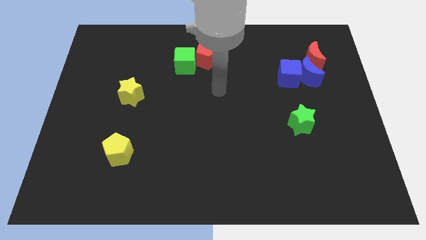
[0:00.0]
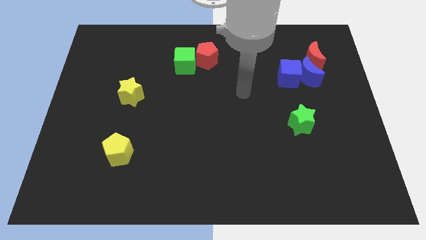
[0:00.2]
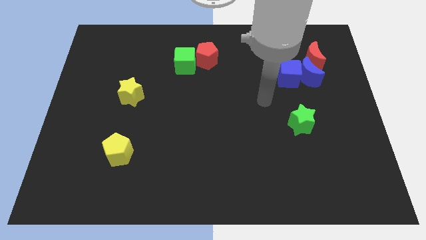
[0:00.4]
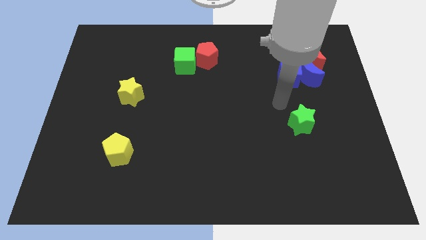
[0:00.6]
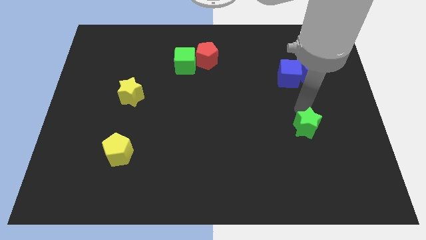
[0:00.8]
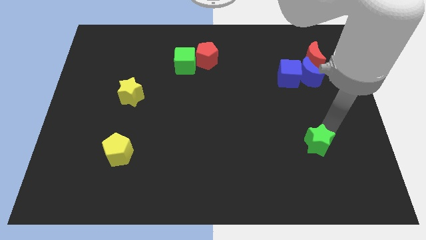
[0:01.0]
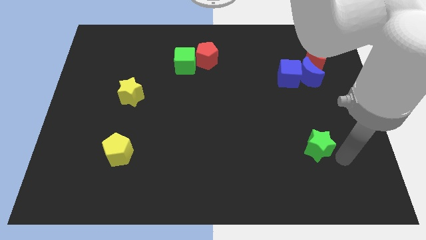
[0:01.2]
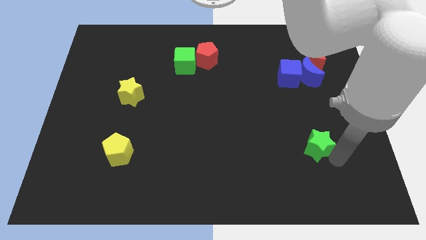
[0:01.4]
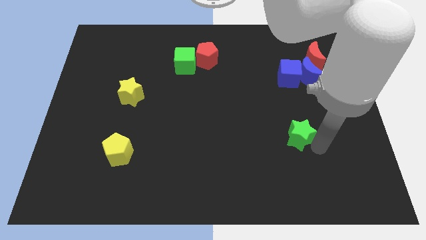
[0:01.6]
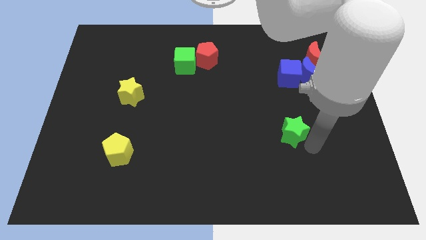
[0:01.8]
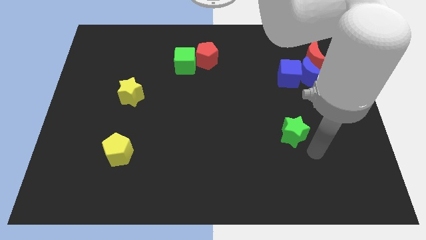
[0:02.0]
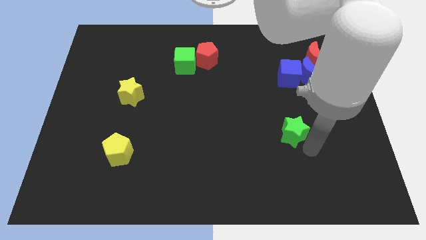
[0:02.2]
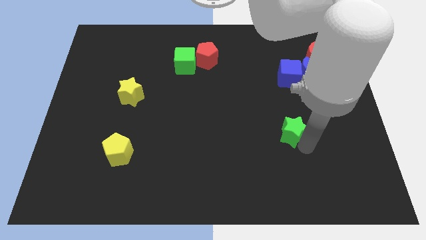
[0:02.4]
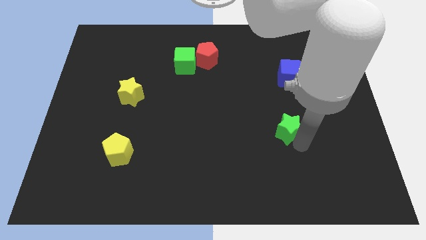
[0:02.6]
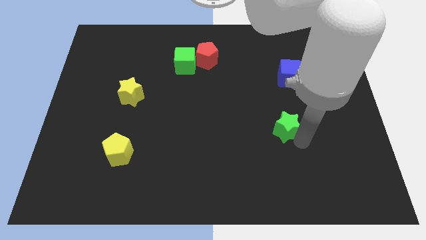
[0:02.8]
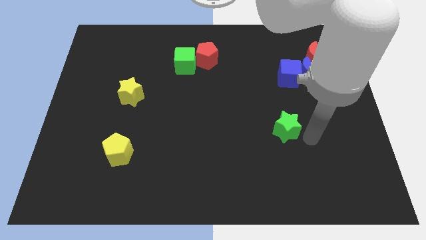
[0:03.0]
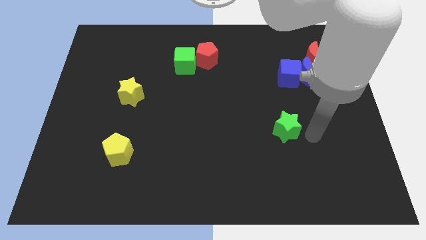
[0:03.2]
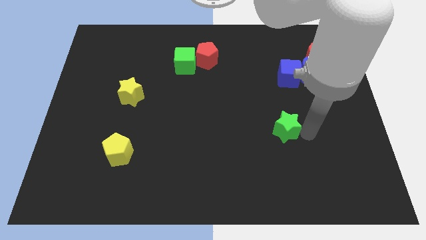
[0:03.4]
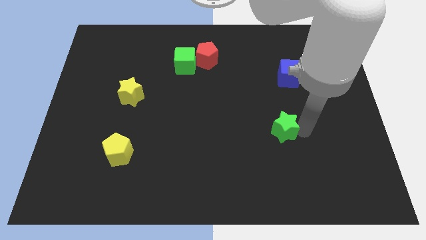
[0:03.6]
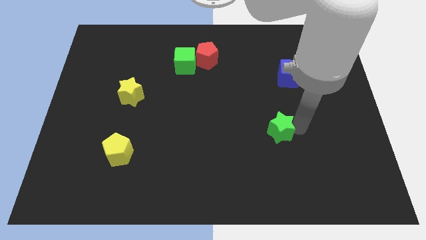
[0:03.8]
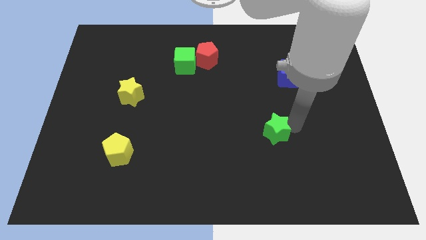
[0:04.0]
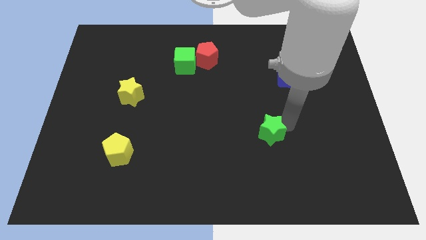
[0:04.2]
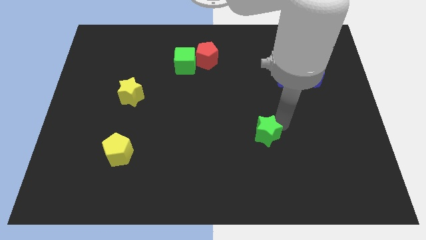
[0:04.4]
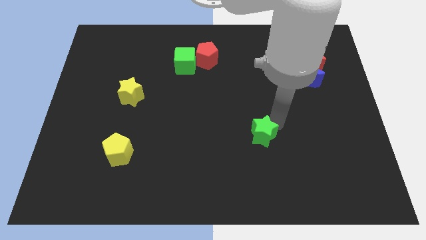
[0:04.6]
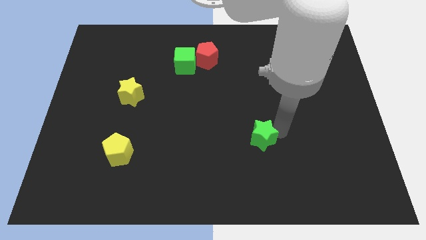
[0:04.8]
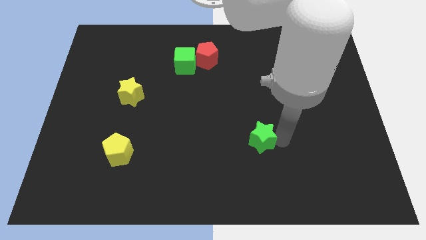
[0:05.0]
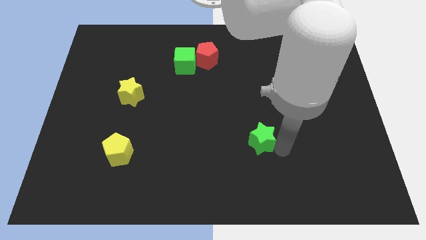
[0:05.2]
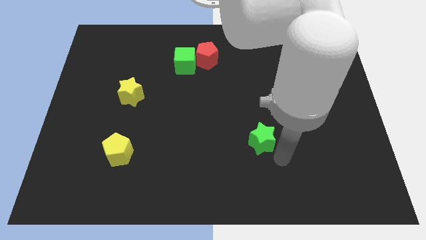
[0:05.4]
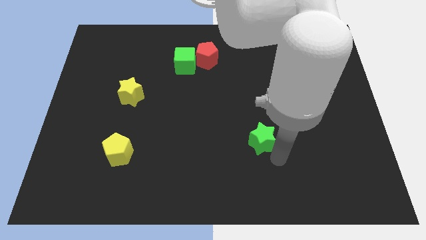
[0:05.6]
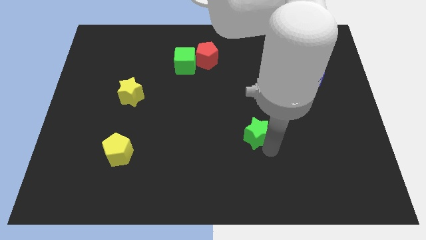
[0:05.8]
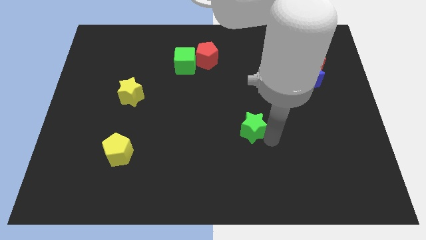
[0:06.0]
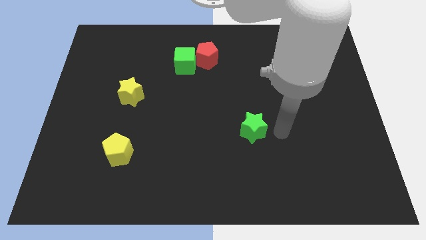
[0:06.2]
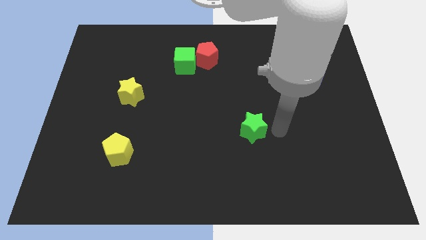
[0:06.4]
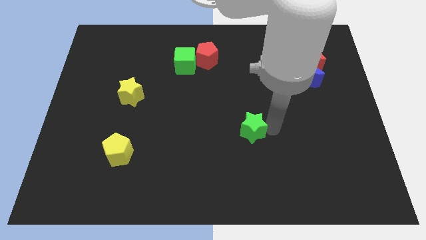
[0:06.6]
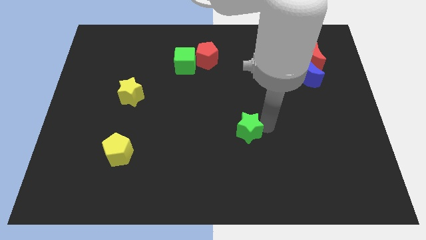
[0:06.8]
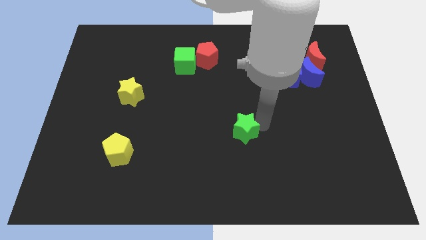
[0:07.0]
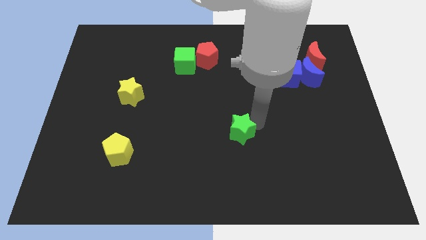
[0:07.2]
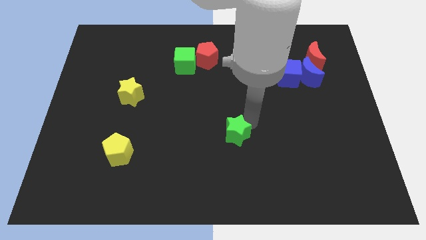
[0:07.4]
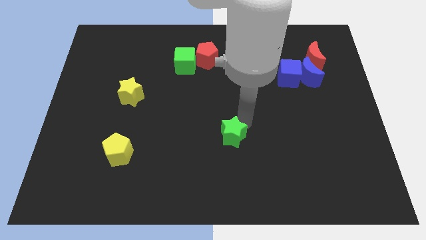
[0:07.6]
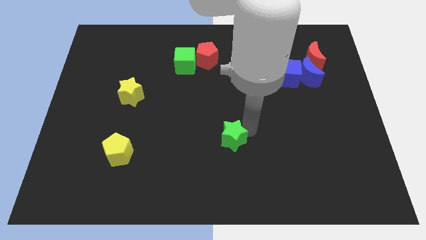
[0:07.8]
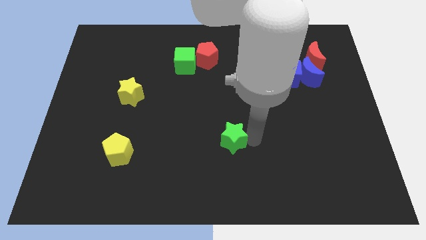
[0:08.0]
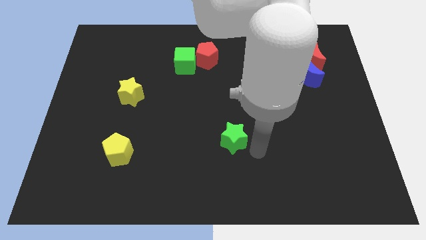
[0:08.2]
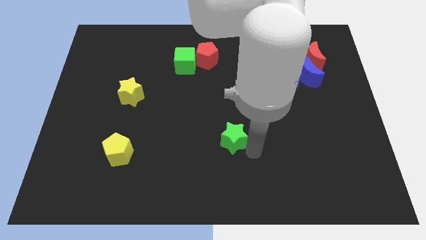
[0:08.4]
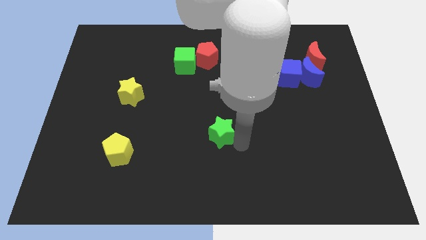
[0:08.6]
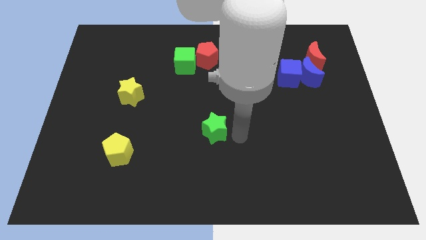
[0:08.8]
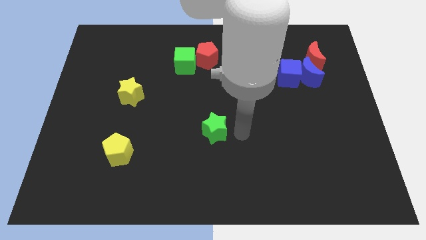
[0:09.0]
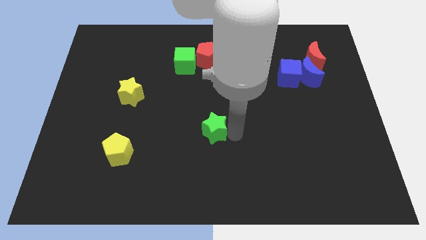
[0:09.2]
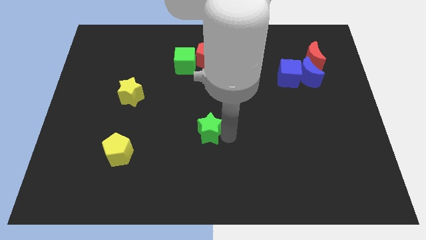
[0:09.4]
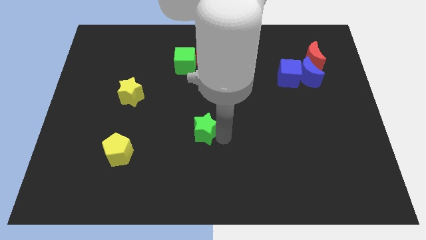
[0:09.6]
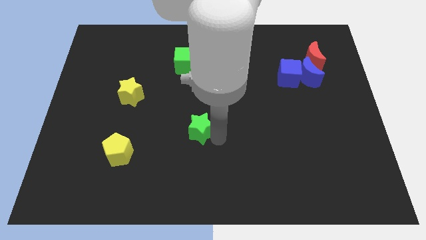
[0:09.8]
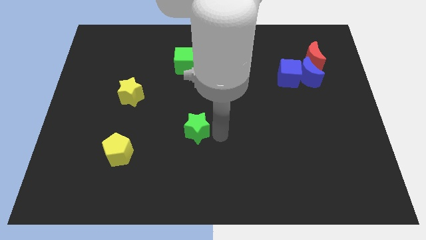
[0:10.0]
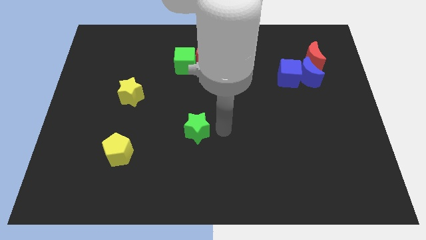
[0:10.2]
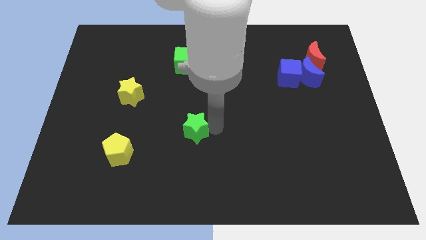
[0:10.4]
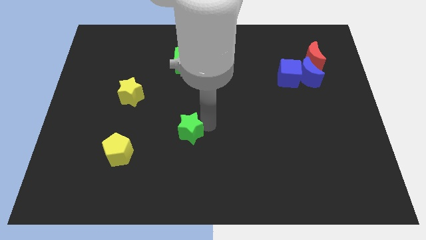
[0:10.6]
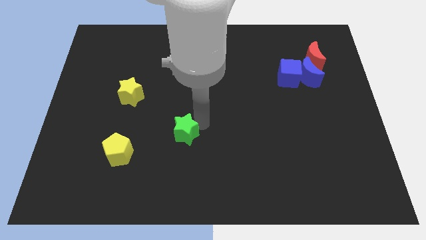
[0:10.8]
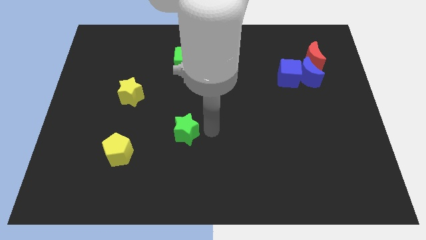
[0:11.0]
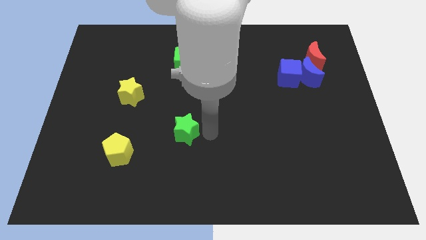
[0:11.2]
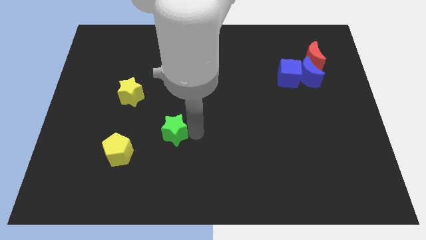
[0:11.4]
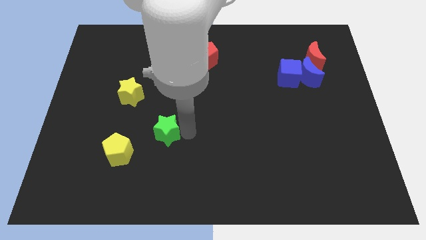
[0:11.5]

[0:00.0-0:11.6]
put the green star to the top right side of the yellow pentagon

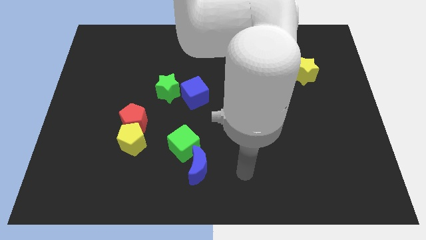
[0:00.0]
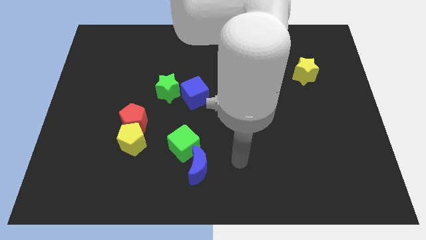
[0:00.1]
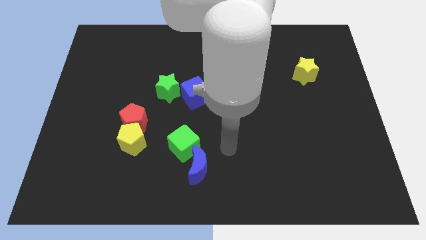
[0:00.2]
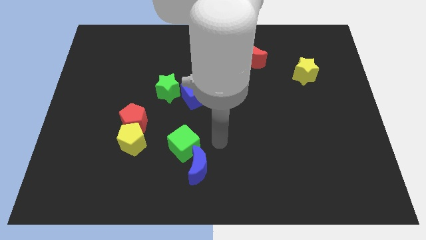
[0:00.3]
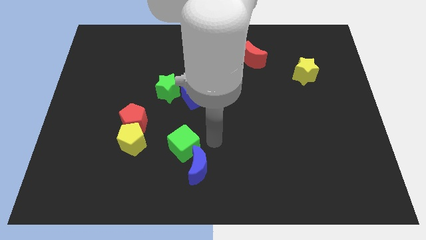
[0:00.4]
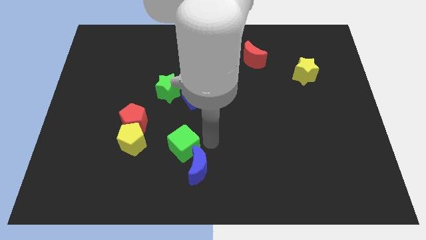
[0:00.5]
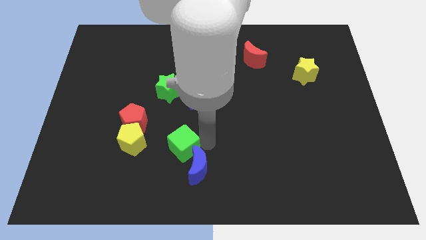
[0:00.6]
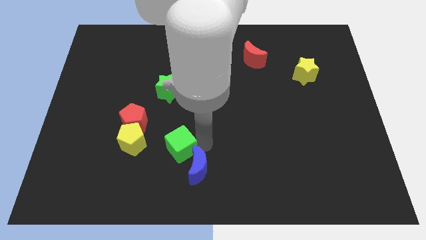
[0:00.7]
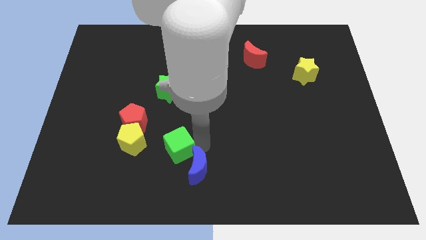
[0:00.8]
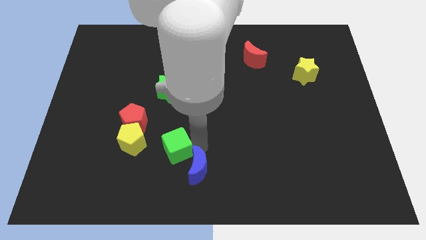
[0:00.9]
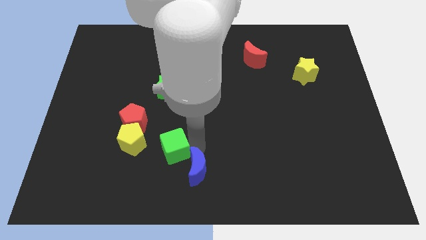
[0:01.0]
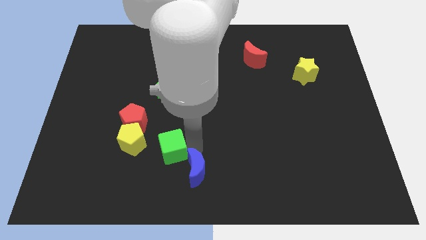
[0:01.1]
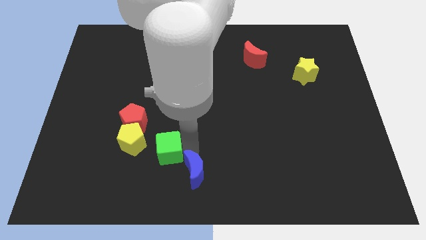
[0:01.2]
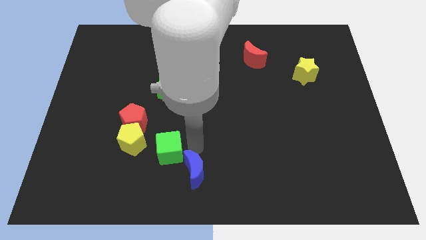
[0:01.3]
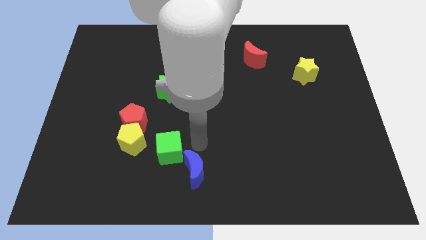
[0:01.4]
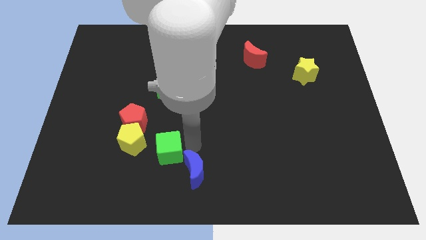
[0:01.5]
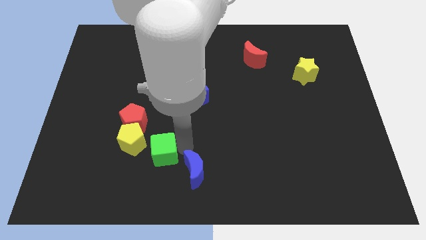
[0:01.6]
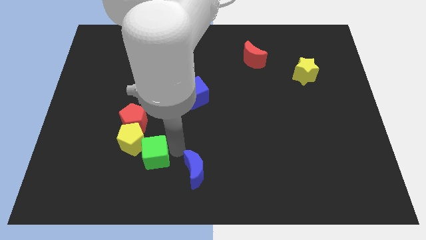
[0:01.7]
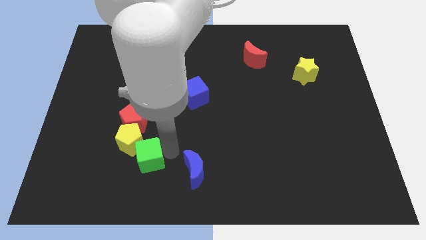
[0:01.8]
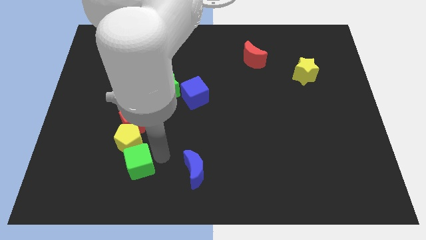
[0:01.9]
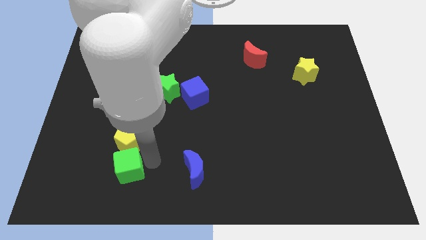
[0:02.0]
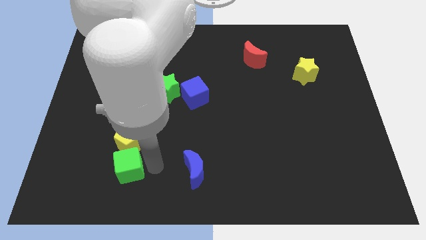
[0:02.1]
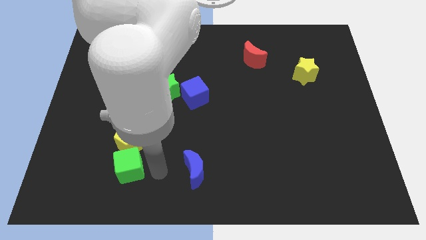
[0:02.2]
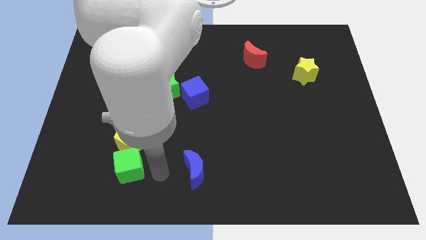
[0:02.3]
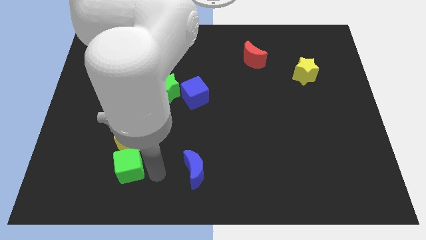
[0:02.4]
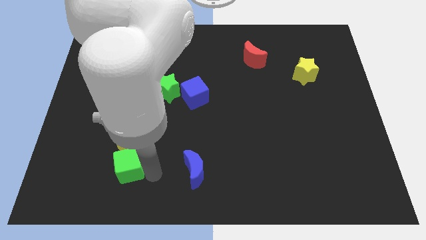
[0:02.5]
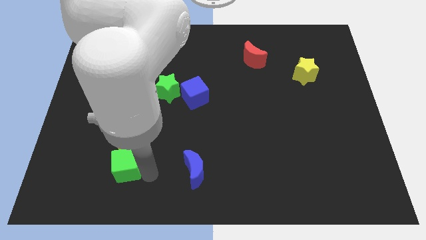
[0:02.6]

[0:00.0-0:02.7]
move the green cube diagonally down and to the left of the yellow pentagon
